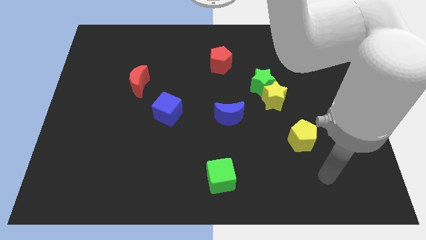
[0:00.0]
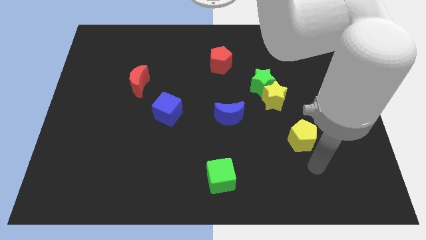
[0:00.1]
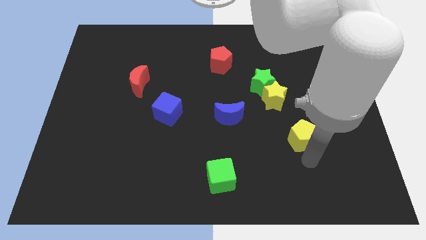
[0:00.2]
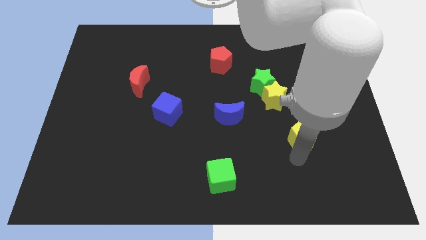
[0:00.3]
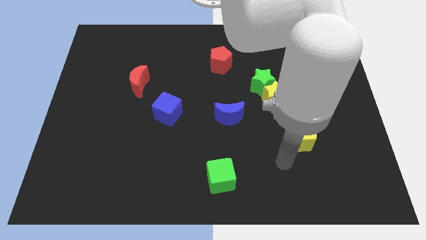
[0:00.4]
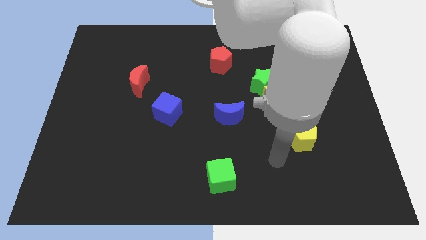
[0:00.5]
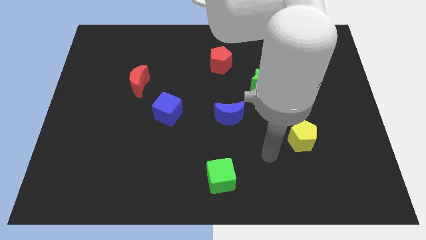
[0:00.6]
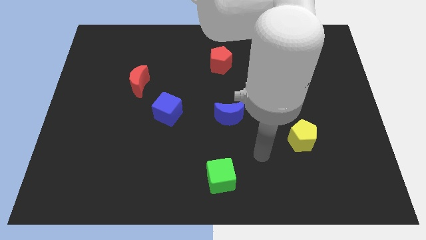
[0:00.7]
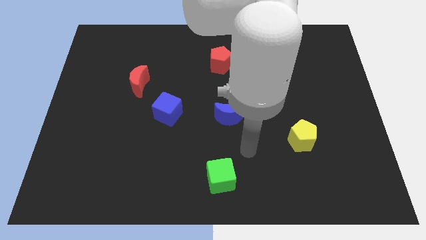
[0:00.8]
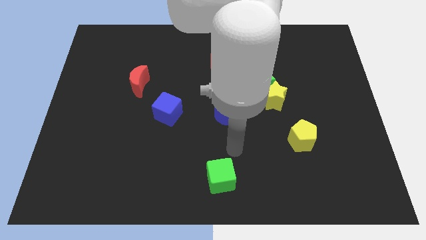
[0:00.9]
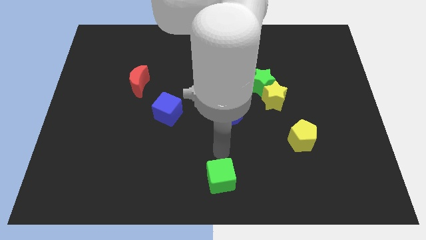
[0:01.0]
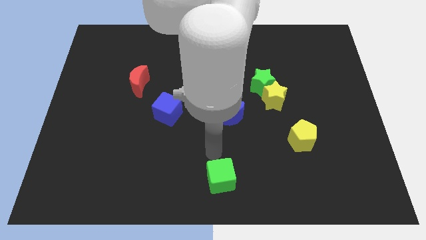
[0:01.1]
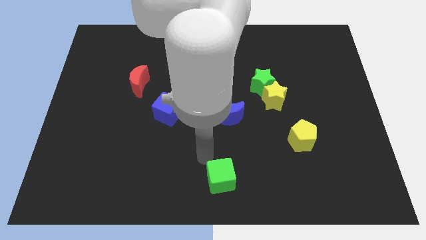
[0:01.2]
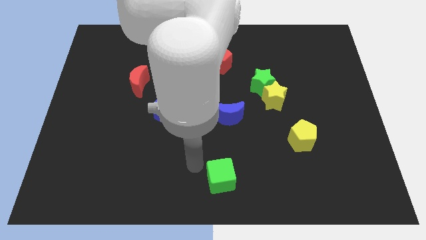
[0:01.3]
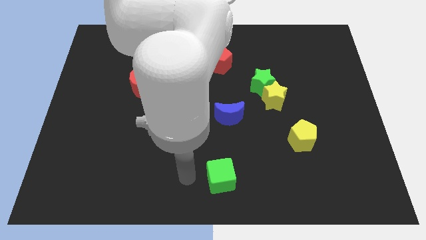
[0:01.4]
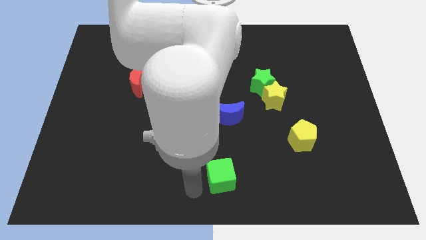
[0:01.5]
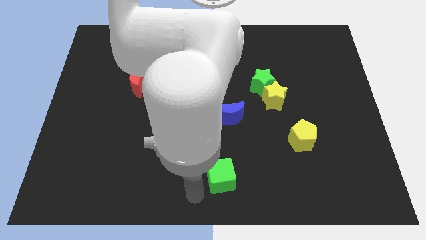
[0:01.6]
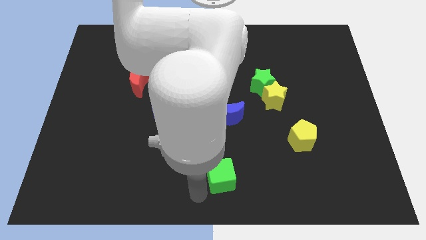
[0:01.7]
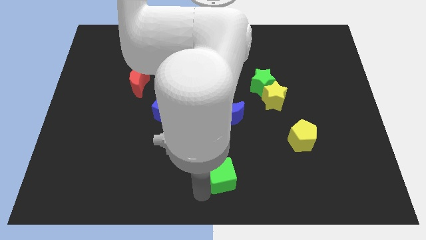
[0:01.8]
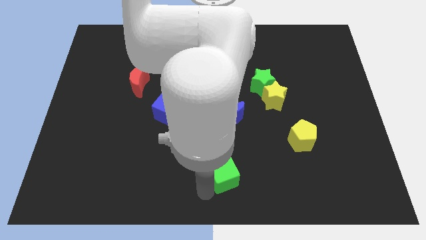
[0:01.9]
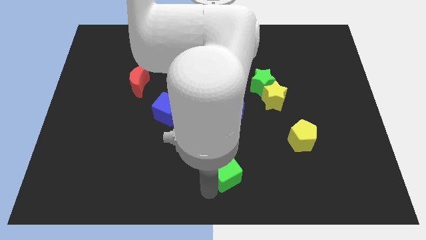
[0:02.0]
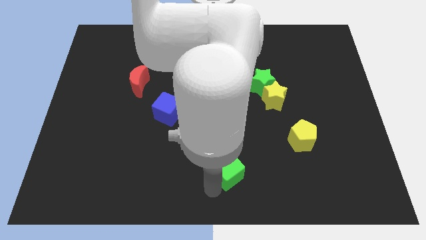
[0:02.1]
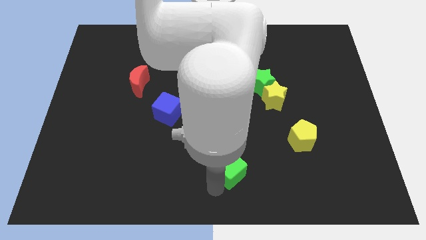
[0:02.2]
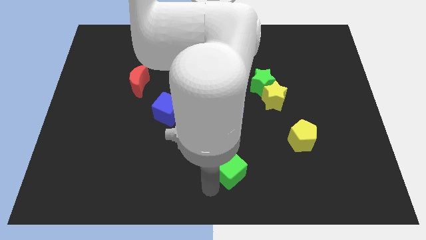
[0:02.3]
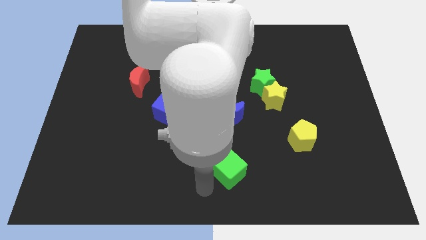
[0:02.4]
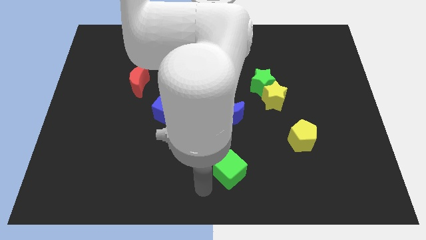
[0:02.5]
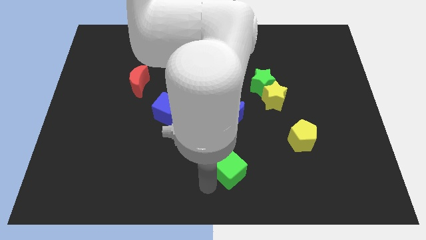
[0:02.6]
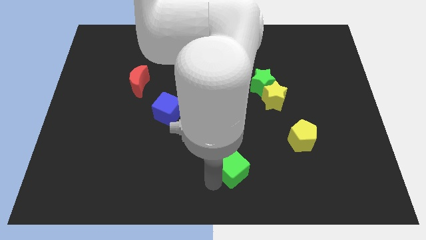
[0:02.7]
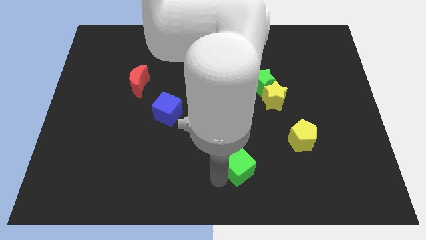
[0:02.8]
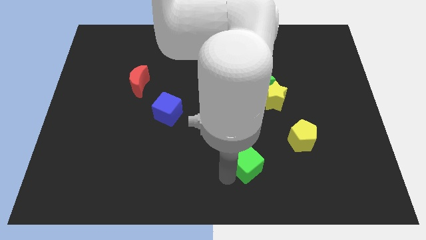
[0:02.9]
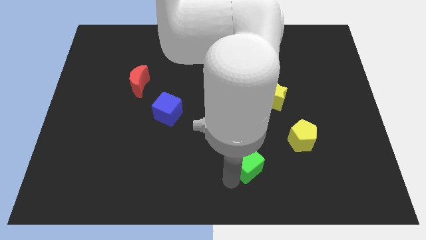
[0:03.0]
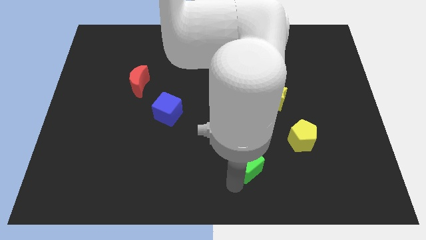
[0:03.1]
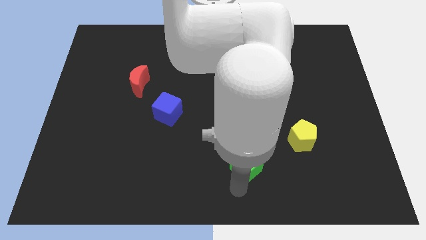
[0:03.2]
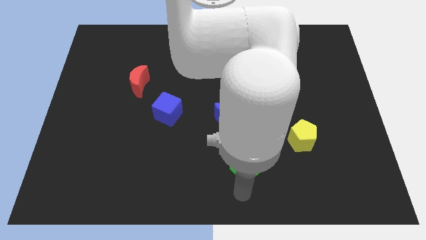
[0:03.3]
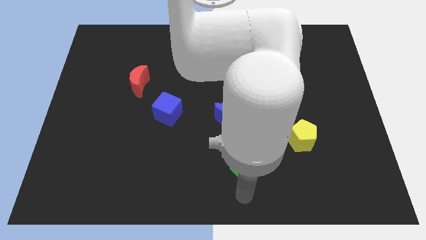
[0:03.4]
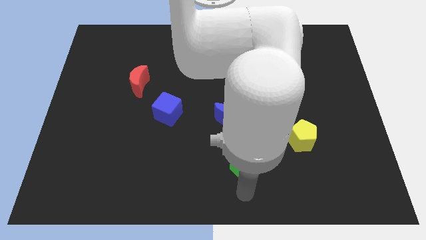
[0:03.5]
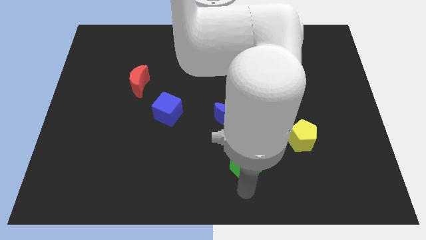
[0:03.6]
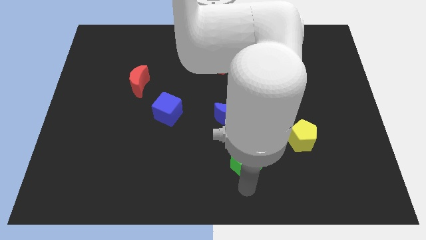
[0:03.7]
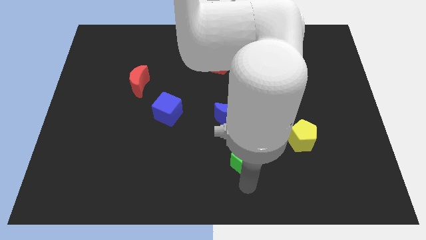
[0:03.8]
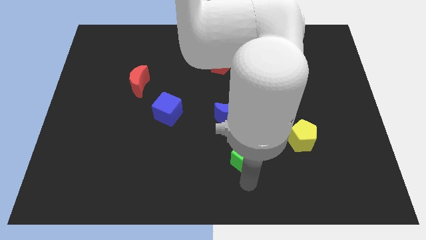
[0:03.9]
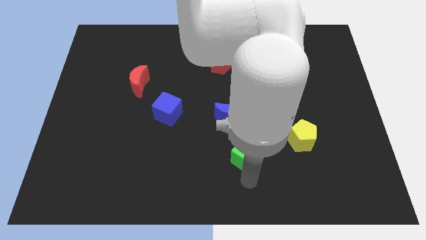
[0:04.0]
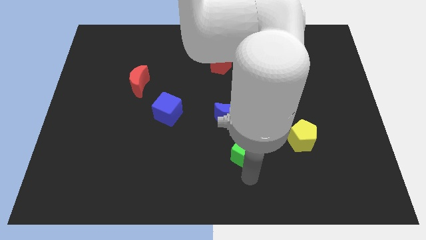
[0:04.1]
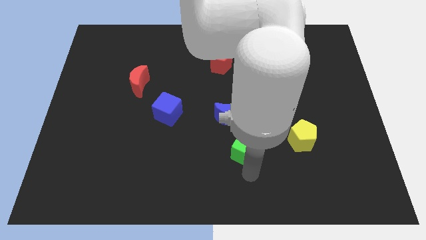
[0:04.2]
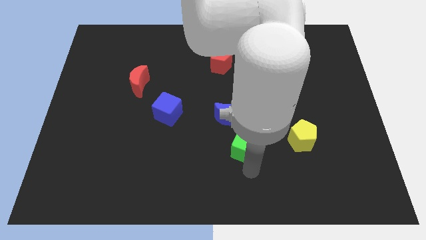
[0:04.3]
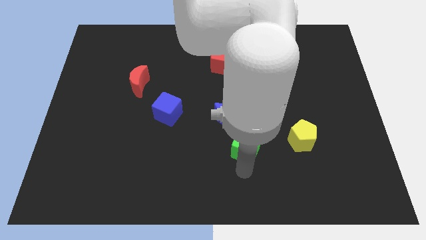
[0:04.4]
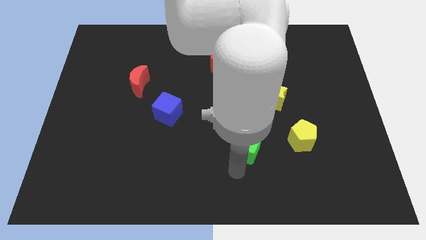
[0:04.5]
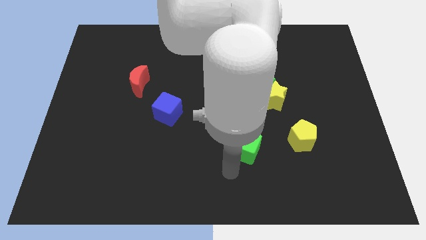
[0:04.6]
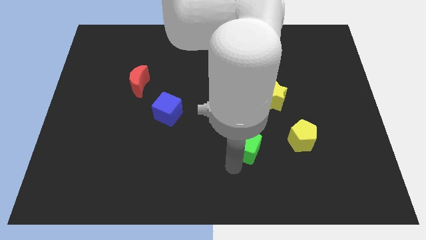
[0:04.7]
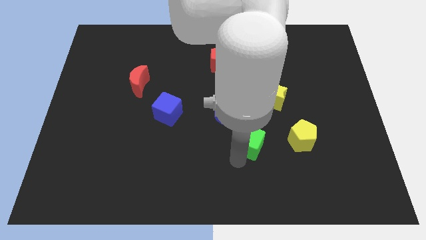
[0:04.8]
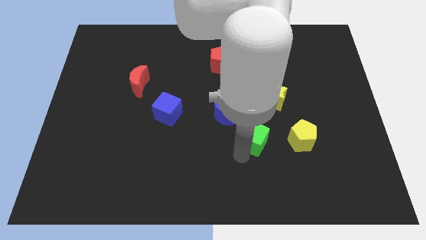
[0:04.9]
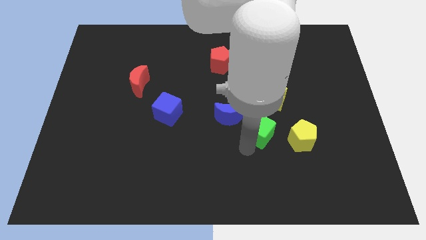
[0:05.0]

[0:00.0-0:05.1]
push the green cube right of the blue moon

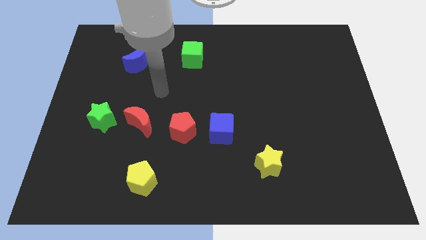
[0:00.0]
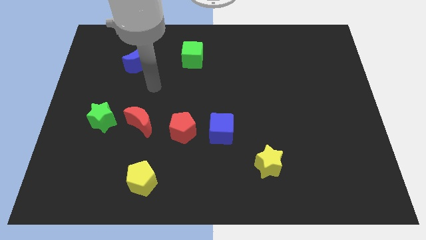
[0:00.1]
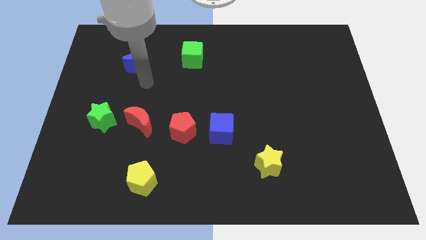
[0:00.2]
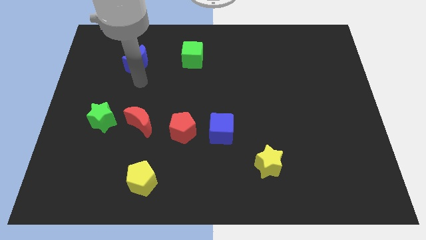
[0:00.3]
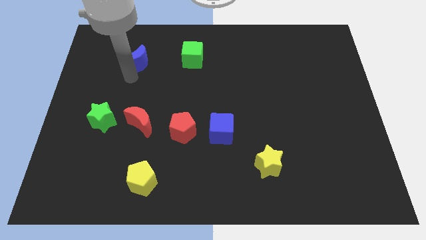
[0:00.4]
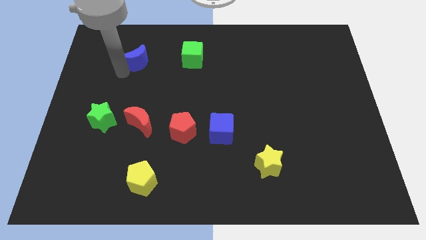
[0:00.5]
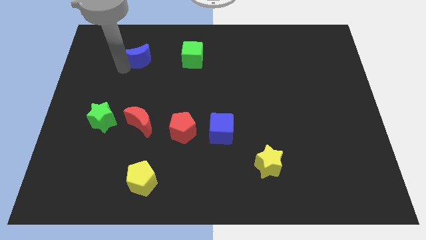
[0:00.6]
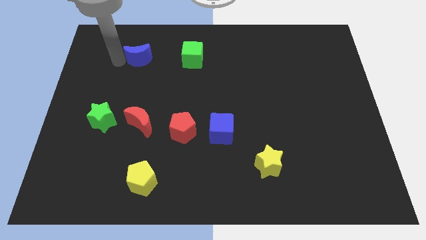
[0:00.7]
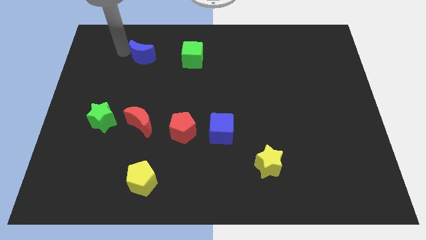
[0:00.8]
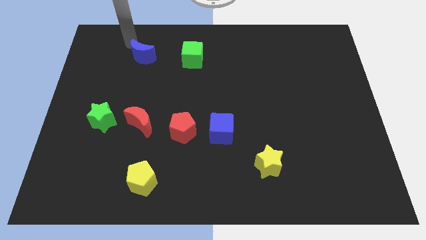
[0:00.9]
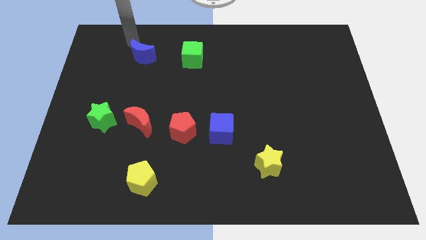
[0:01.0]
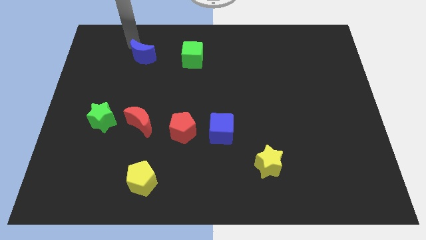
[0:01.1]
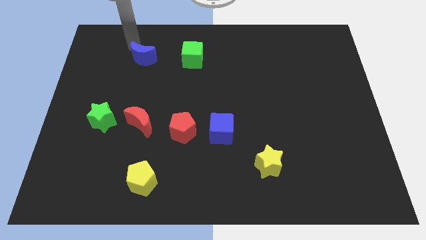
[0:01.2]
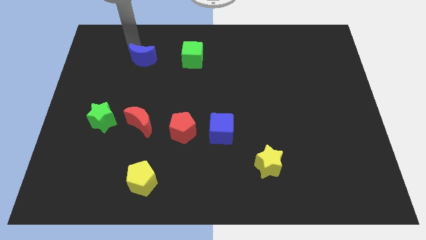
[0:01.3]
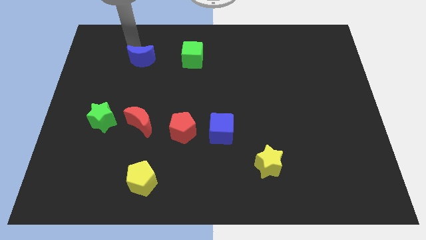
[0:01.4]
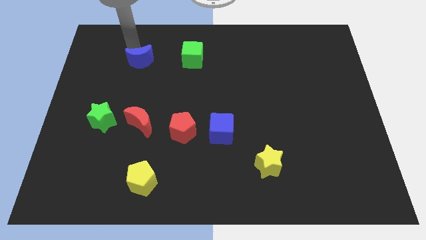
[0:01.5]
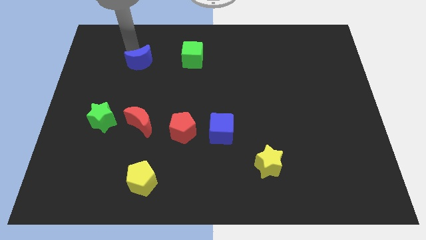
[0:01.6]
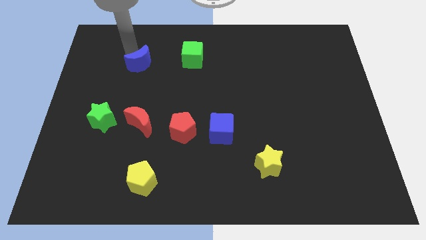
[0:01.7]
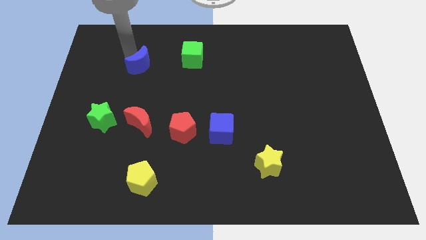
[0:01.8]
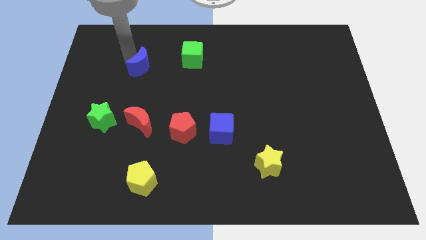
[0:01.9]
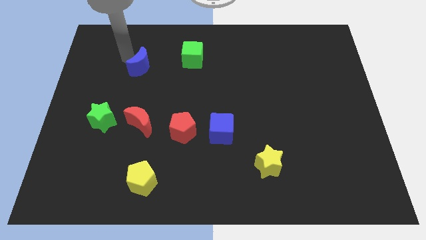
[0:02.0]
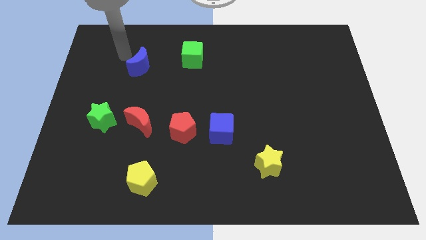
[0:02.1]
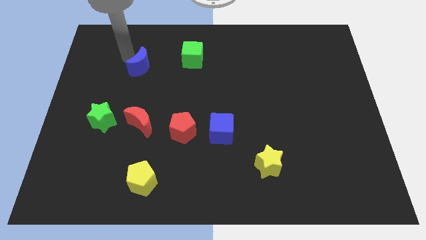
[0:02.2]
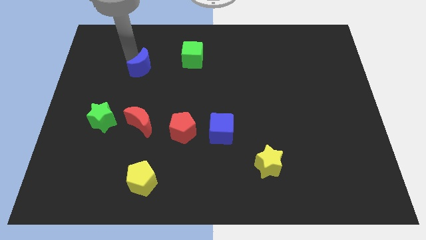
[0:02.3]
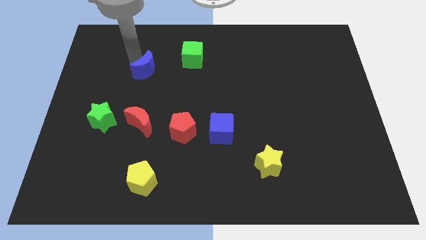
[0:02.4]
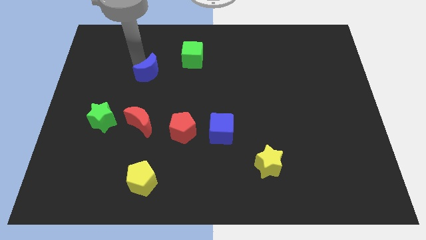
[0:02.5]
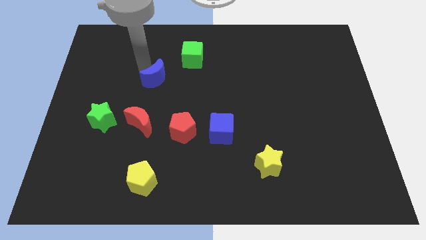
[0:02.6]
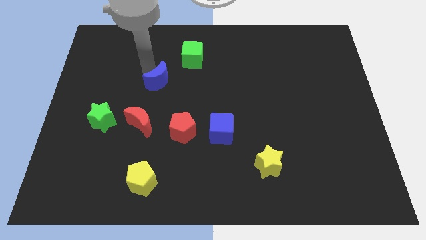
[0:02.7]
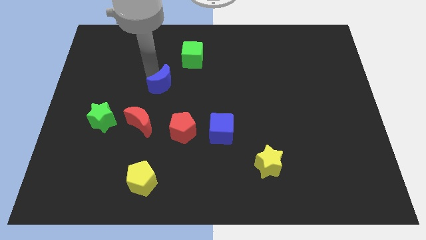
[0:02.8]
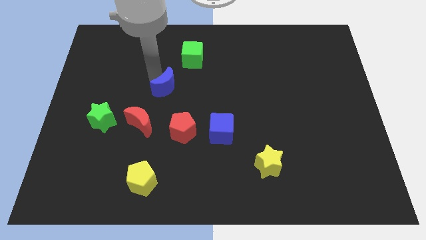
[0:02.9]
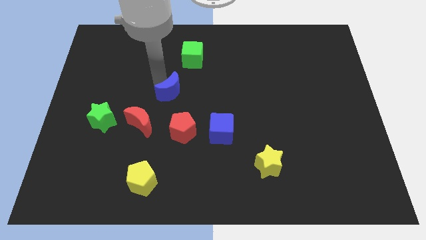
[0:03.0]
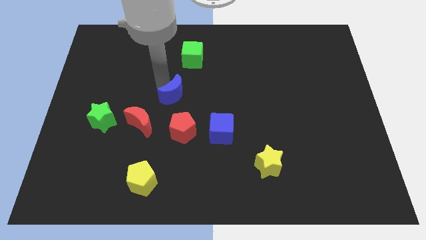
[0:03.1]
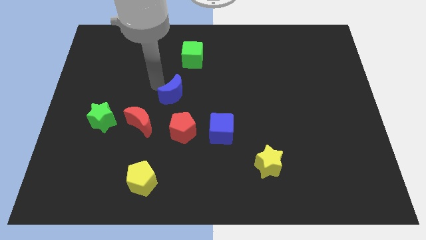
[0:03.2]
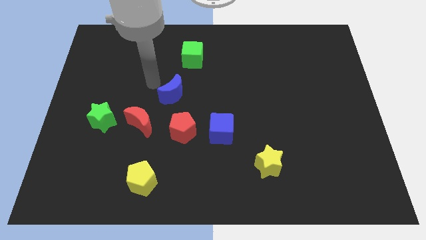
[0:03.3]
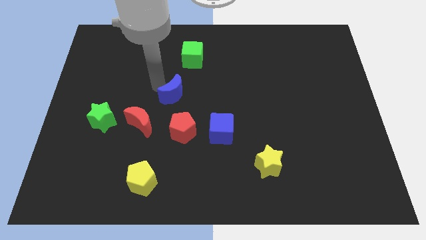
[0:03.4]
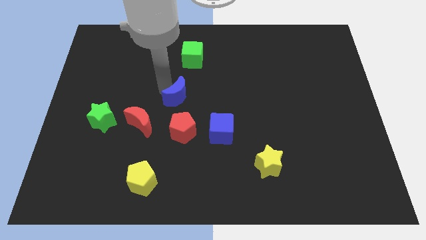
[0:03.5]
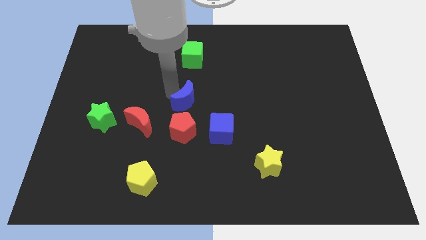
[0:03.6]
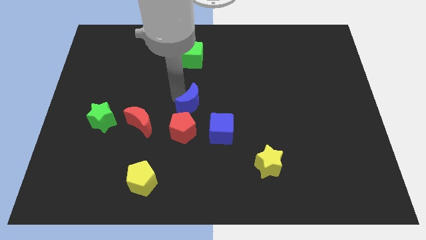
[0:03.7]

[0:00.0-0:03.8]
slide the blue moon diagonally up and to the right of the red pentagon
